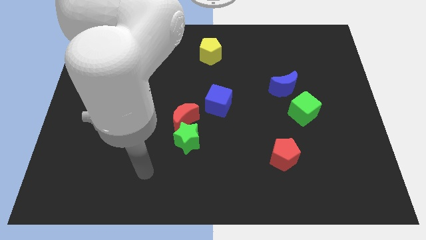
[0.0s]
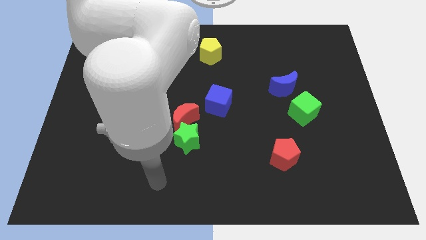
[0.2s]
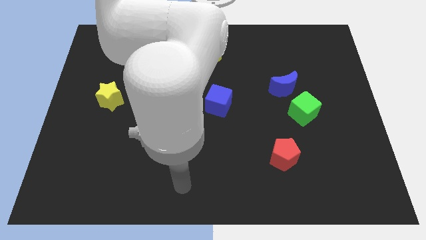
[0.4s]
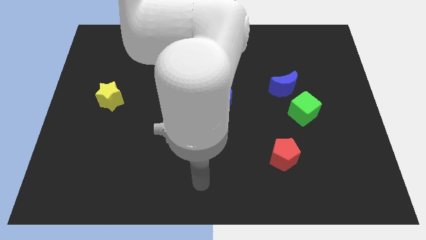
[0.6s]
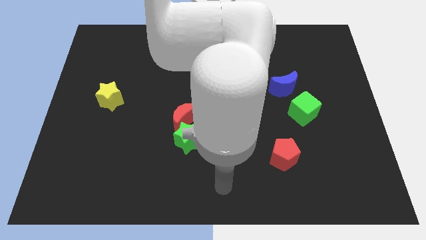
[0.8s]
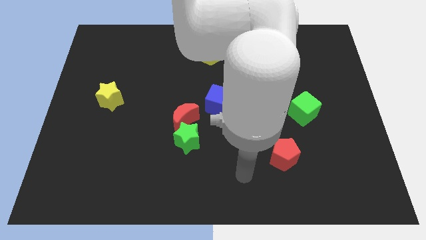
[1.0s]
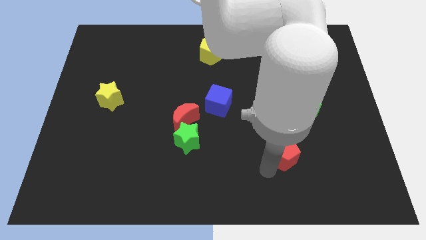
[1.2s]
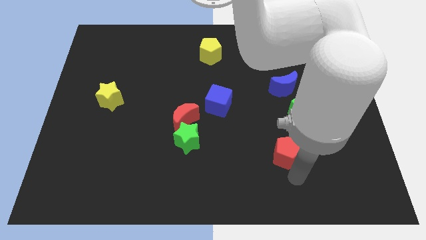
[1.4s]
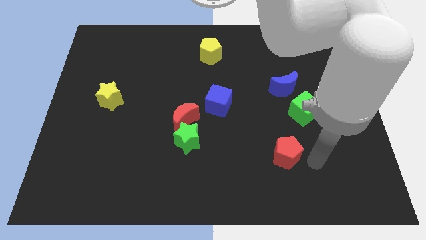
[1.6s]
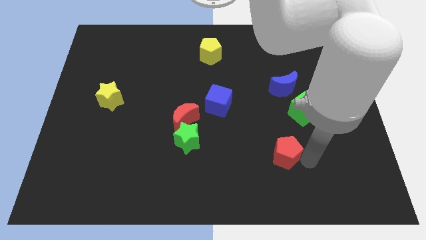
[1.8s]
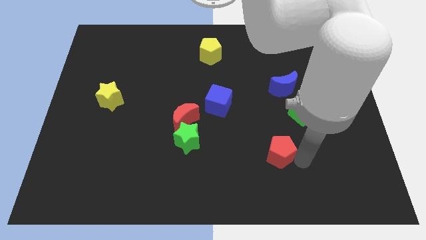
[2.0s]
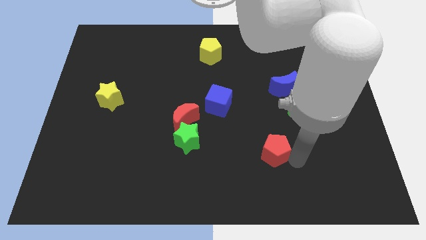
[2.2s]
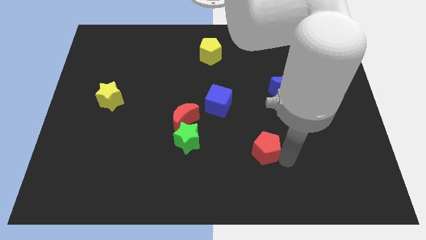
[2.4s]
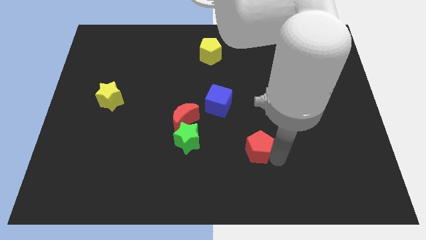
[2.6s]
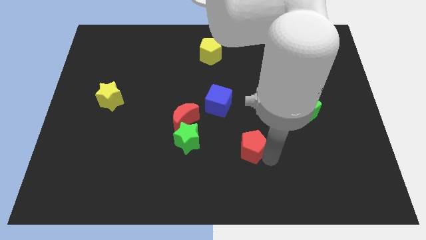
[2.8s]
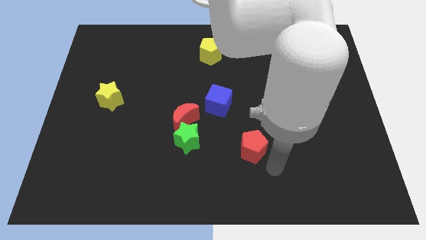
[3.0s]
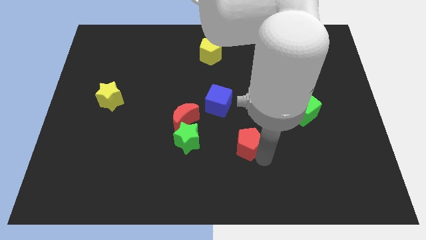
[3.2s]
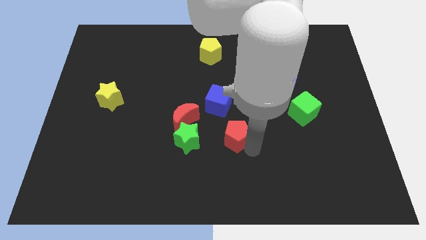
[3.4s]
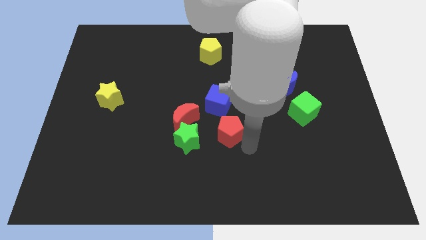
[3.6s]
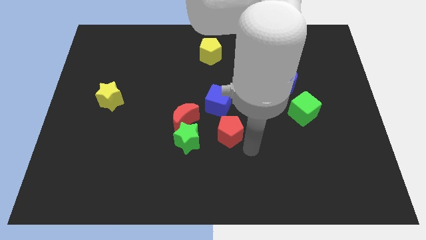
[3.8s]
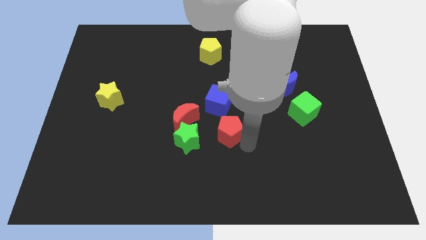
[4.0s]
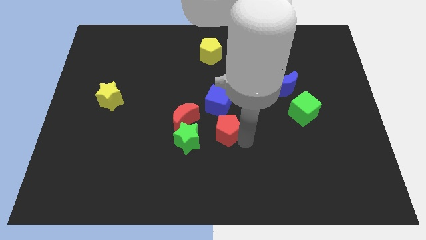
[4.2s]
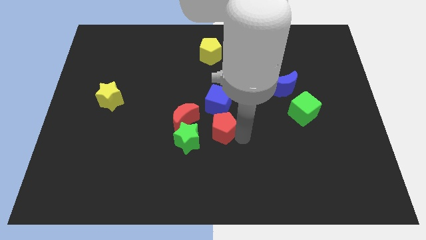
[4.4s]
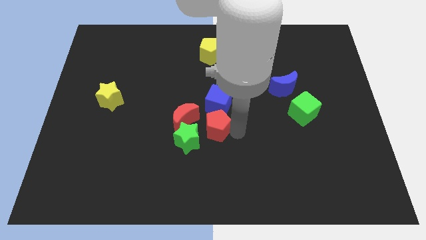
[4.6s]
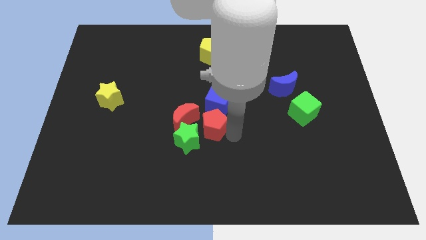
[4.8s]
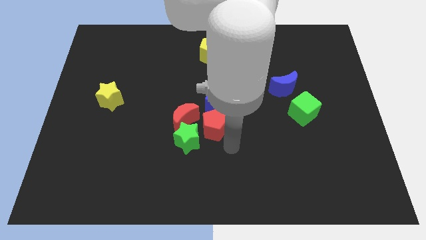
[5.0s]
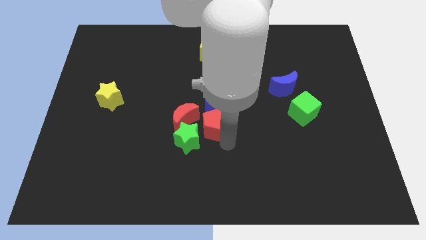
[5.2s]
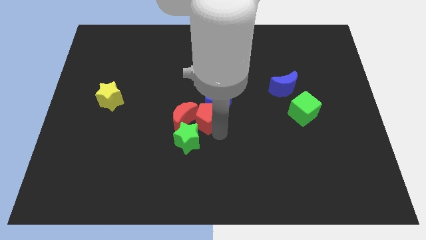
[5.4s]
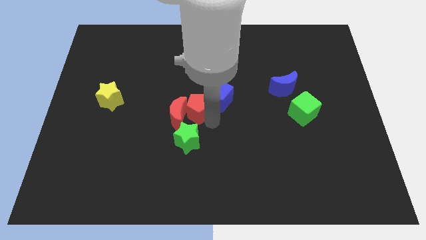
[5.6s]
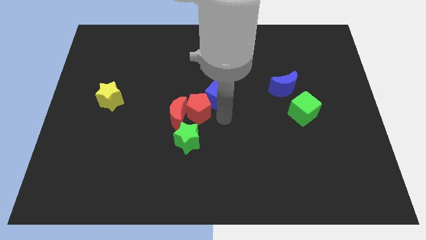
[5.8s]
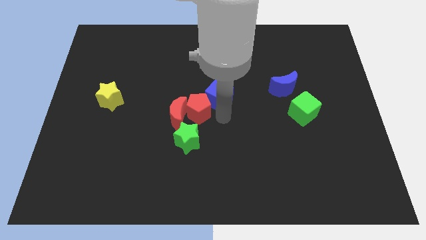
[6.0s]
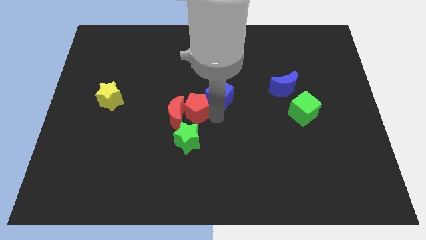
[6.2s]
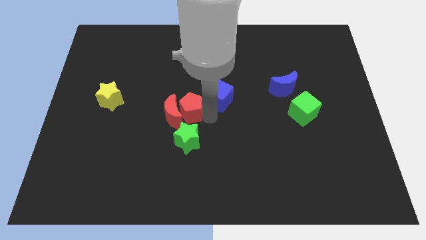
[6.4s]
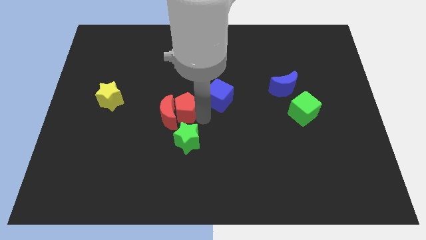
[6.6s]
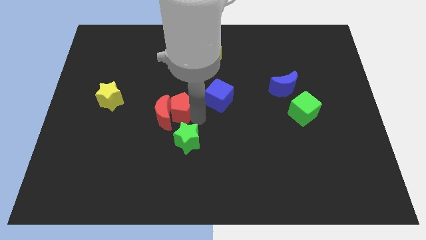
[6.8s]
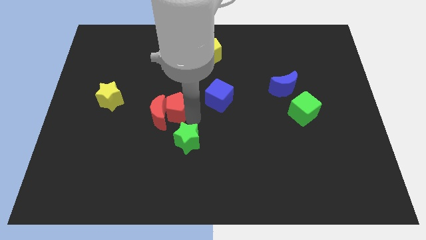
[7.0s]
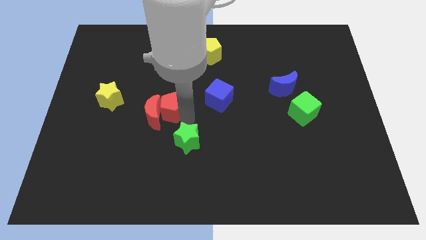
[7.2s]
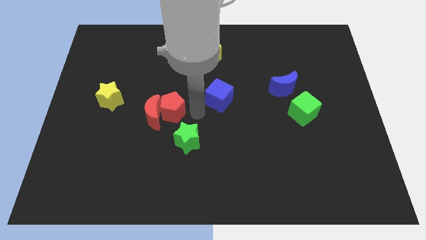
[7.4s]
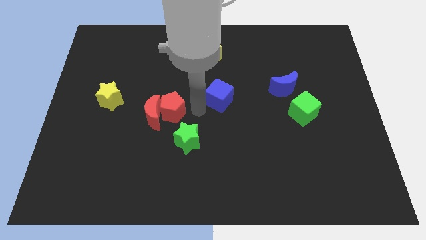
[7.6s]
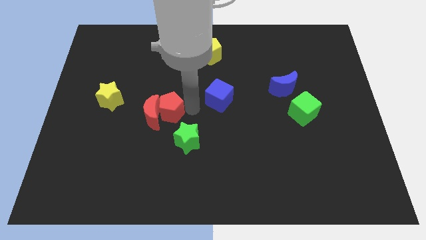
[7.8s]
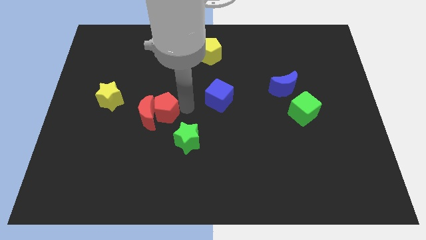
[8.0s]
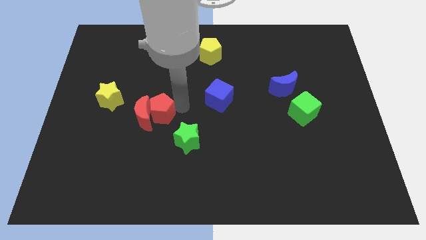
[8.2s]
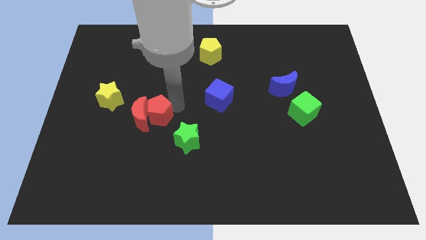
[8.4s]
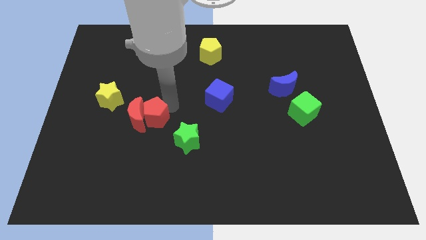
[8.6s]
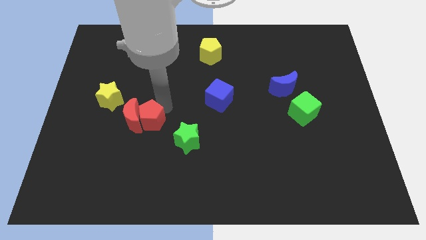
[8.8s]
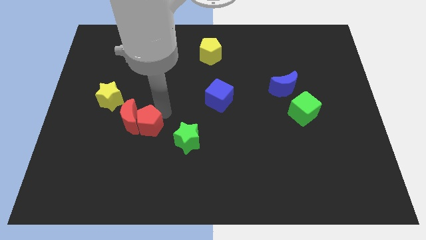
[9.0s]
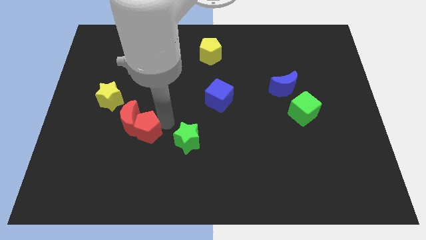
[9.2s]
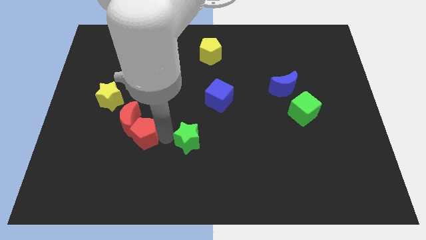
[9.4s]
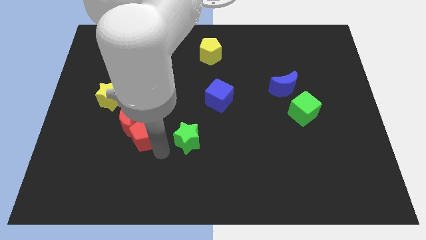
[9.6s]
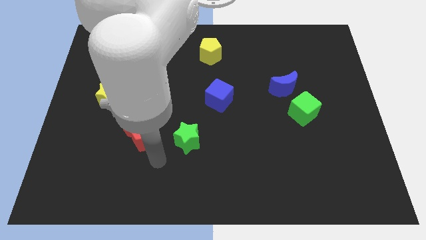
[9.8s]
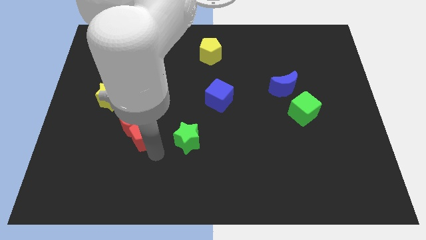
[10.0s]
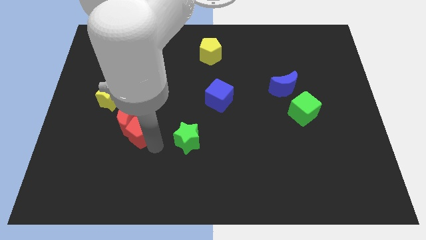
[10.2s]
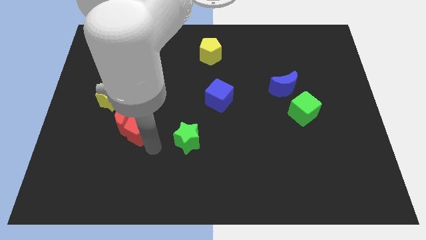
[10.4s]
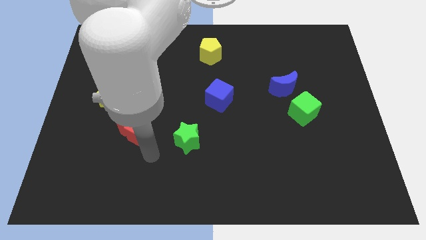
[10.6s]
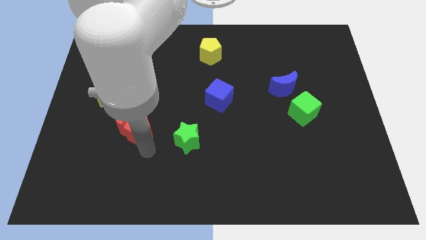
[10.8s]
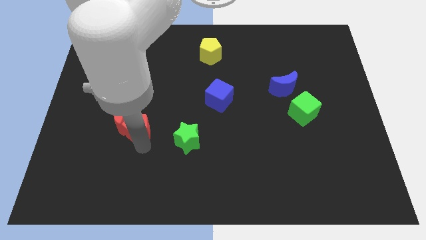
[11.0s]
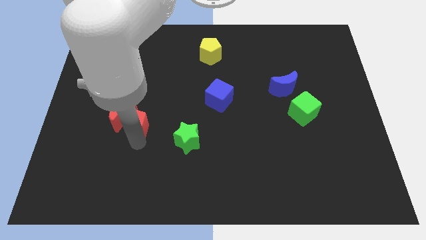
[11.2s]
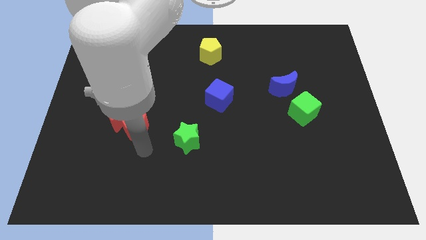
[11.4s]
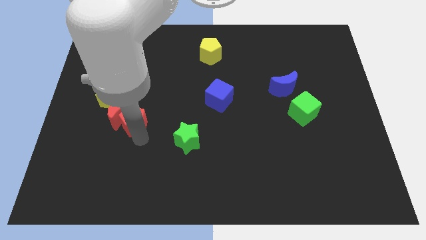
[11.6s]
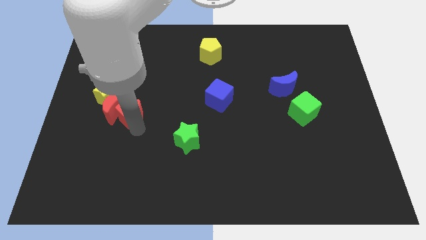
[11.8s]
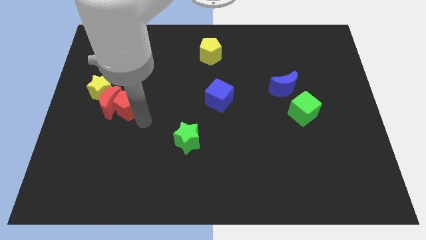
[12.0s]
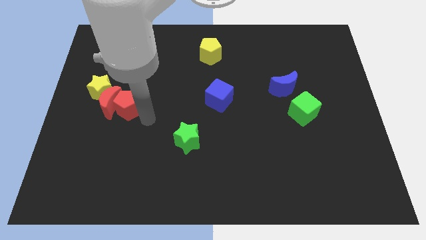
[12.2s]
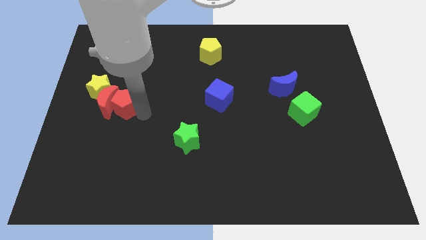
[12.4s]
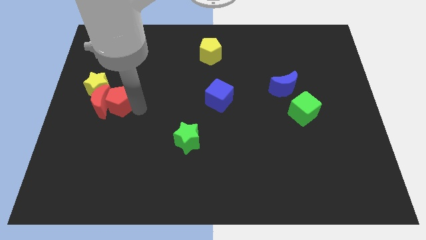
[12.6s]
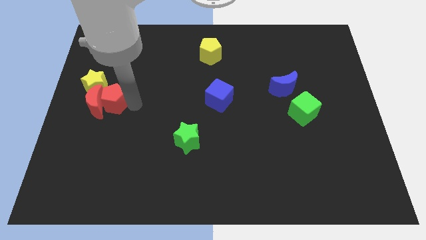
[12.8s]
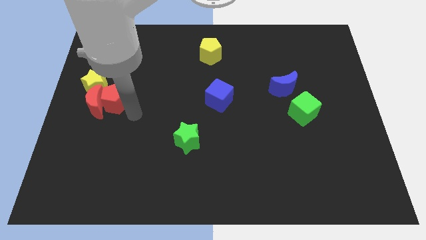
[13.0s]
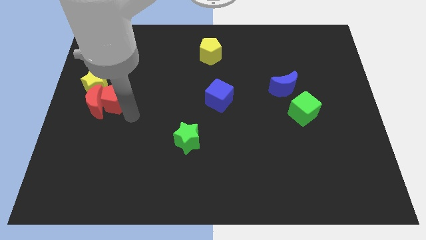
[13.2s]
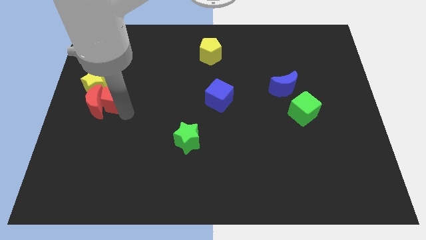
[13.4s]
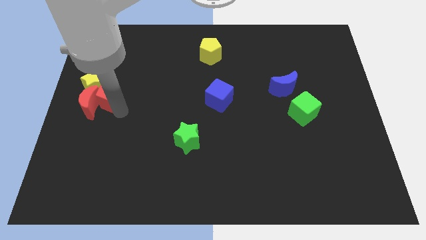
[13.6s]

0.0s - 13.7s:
move the red pentagon towards the yellow star

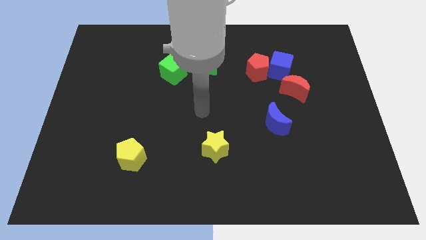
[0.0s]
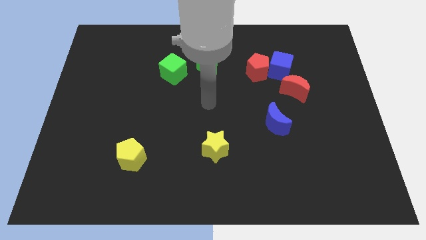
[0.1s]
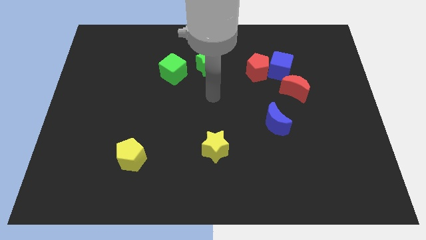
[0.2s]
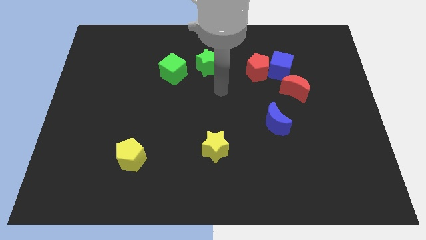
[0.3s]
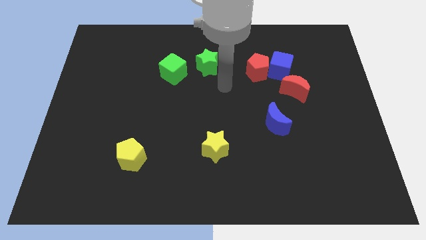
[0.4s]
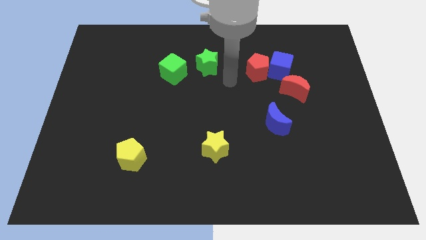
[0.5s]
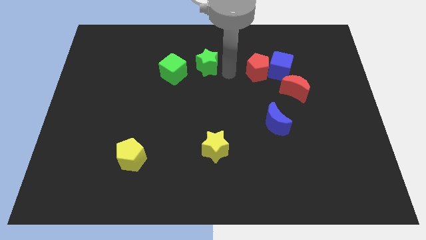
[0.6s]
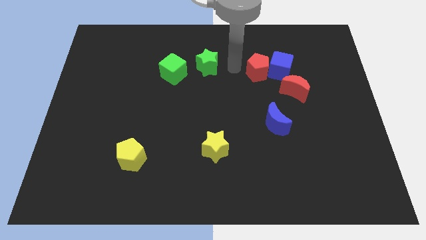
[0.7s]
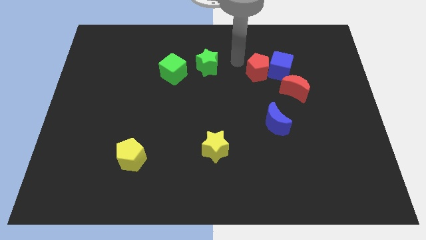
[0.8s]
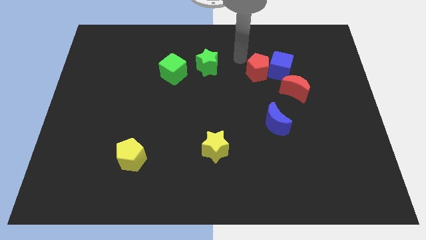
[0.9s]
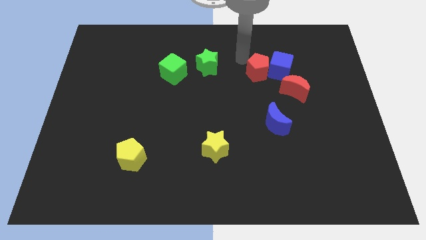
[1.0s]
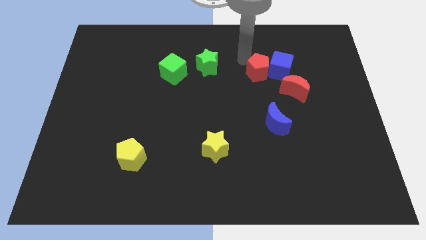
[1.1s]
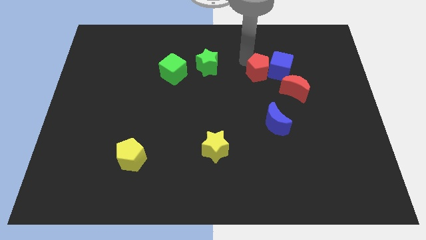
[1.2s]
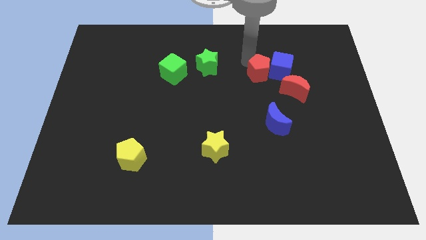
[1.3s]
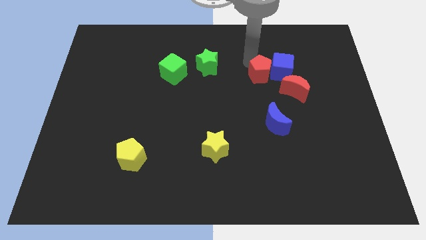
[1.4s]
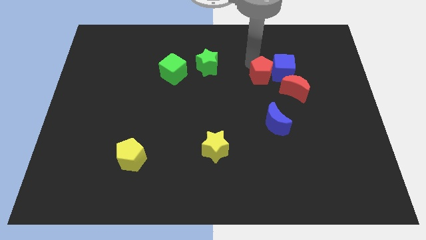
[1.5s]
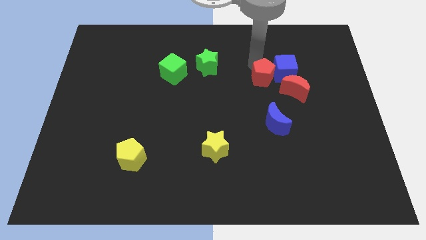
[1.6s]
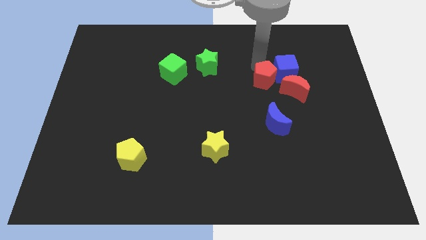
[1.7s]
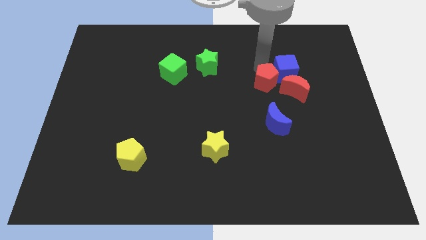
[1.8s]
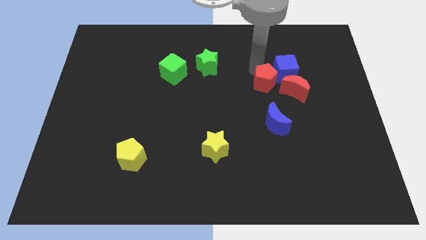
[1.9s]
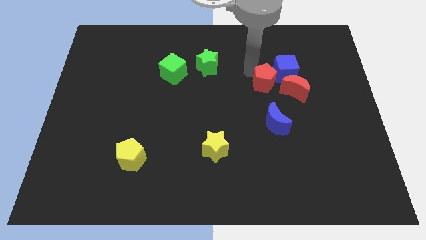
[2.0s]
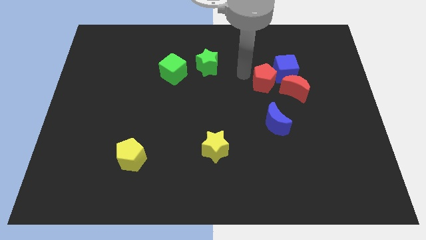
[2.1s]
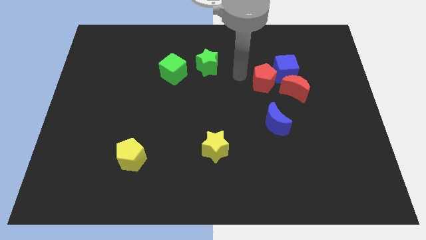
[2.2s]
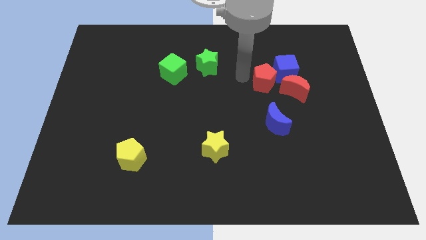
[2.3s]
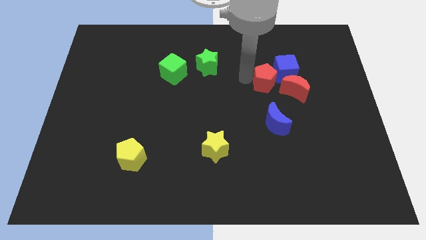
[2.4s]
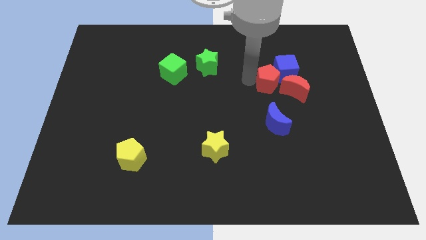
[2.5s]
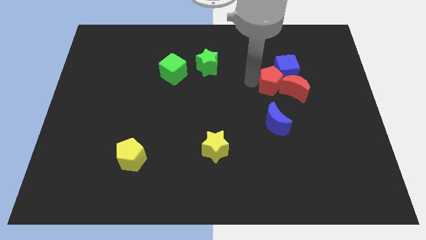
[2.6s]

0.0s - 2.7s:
move the red pentagon towards the red moon
